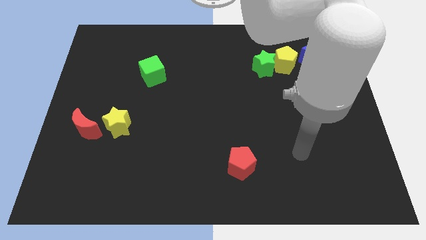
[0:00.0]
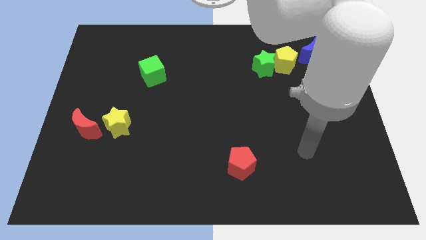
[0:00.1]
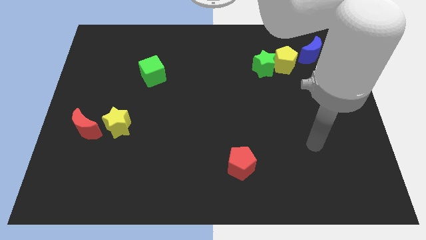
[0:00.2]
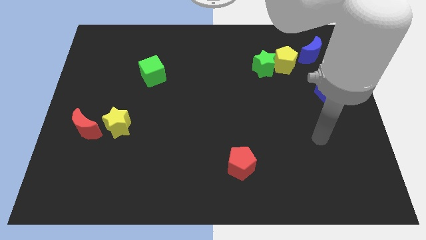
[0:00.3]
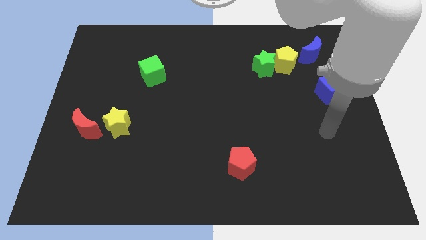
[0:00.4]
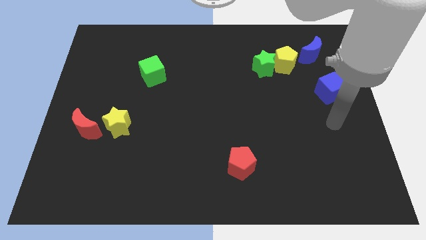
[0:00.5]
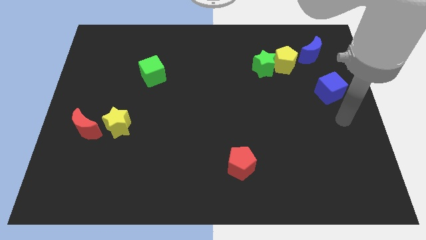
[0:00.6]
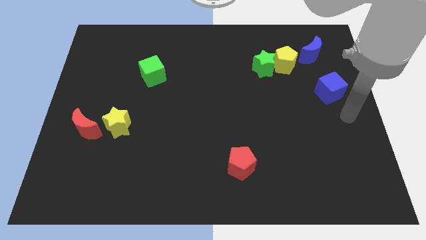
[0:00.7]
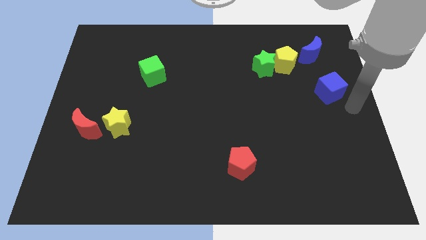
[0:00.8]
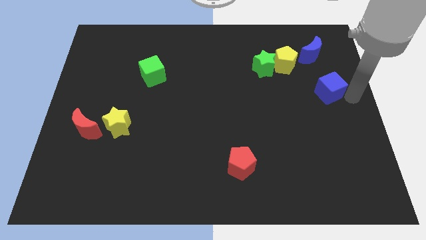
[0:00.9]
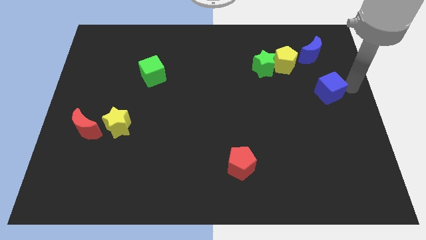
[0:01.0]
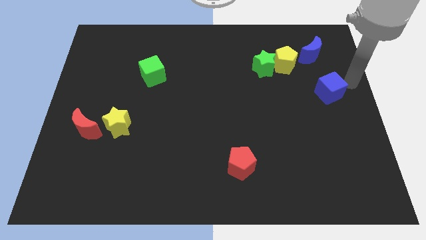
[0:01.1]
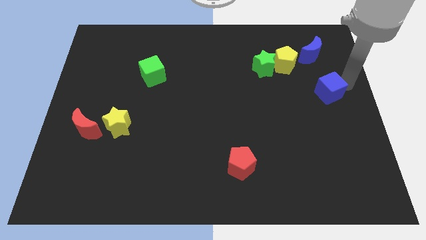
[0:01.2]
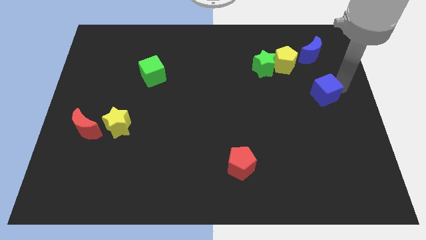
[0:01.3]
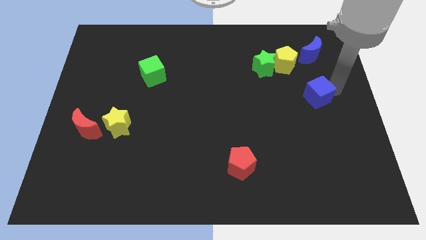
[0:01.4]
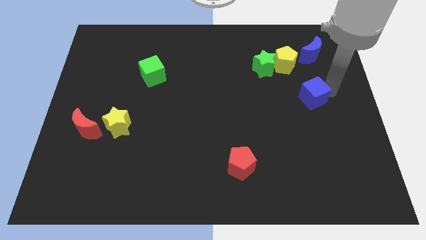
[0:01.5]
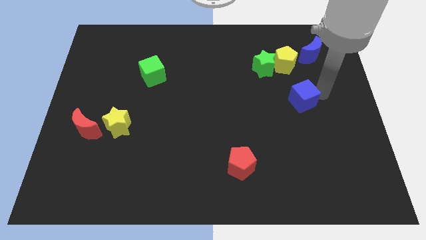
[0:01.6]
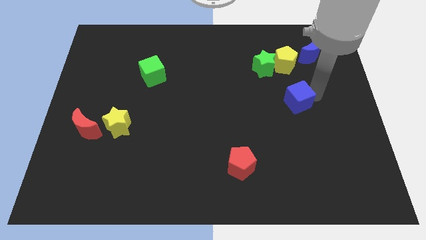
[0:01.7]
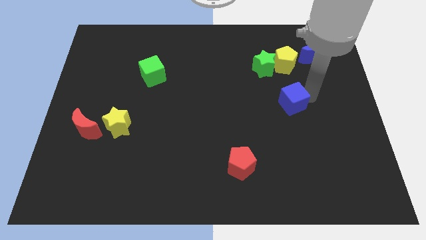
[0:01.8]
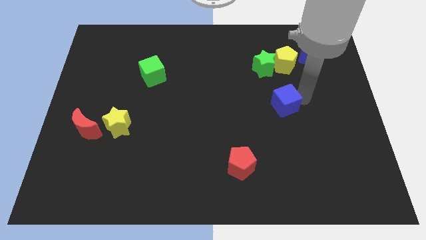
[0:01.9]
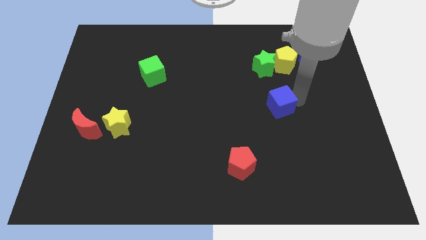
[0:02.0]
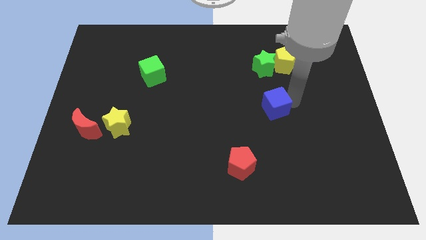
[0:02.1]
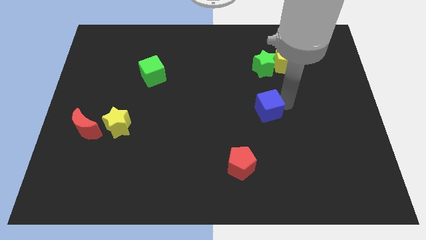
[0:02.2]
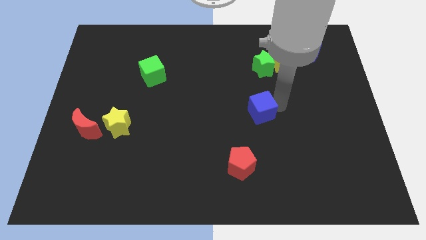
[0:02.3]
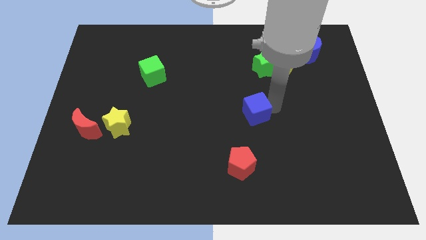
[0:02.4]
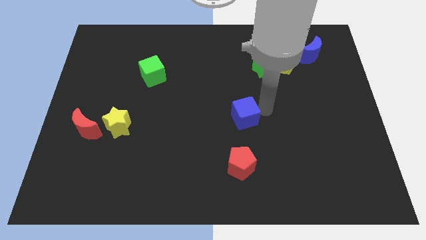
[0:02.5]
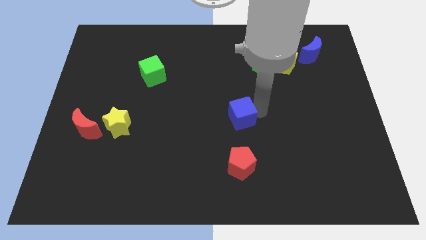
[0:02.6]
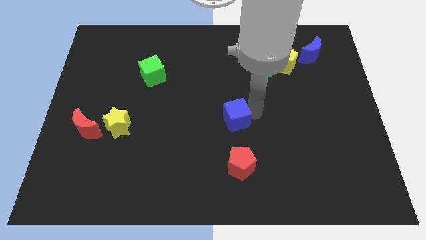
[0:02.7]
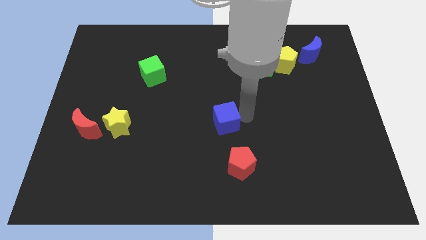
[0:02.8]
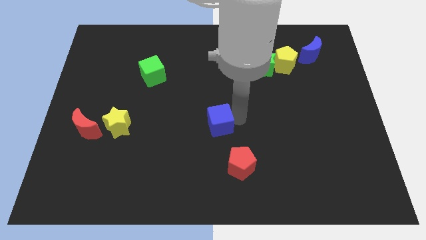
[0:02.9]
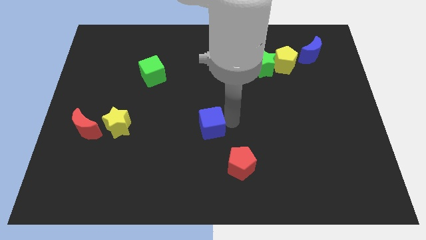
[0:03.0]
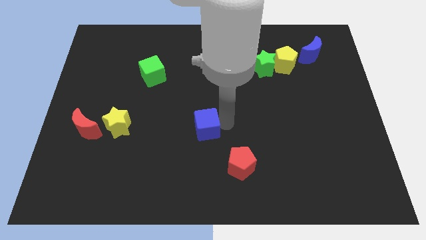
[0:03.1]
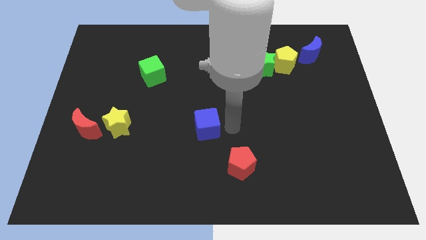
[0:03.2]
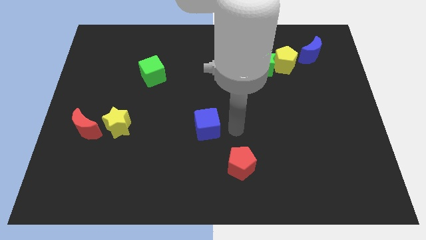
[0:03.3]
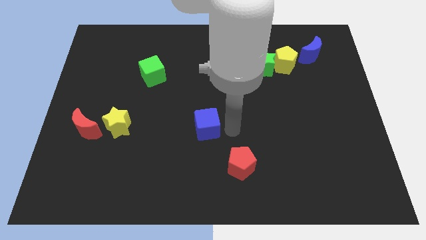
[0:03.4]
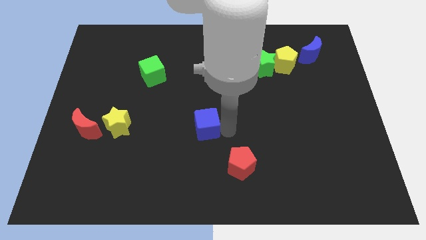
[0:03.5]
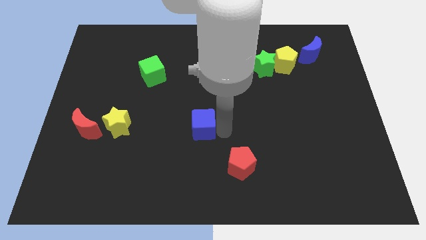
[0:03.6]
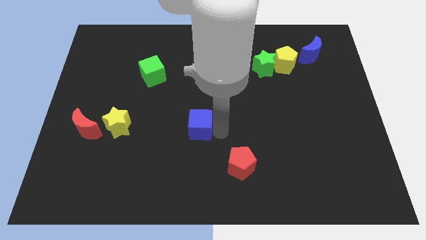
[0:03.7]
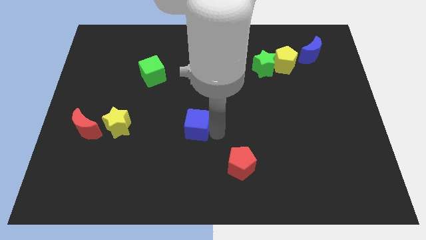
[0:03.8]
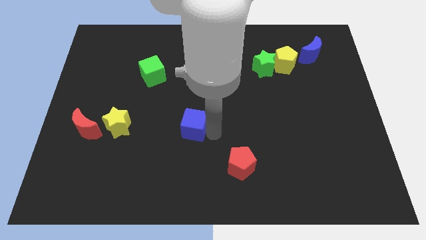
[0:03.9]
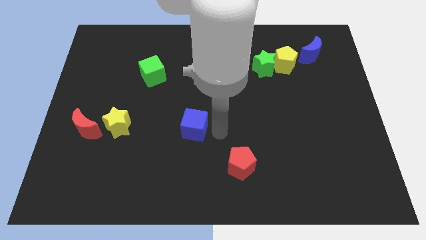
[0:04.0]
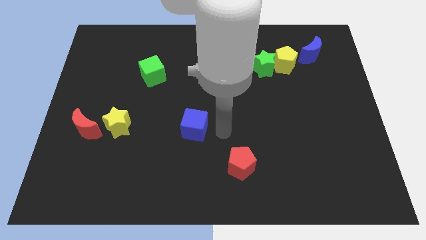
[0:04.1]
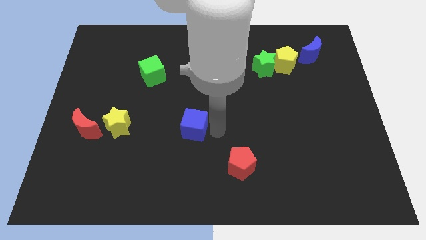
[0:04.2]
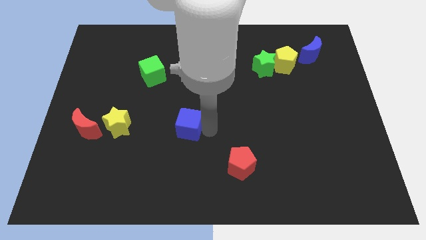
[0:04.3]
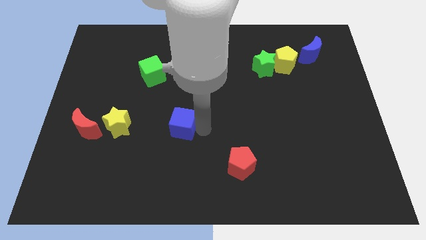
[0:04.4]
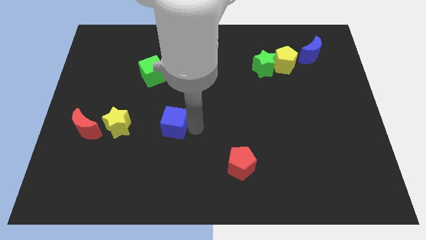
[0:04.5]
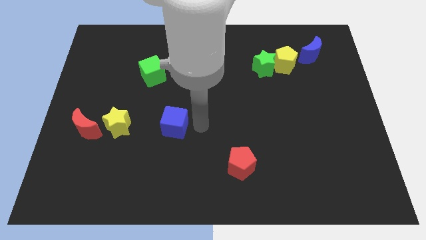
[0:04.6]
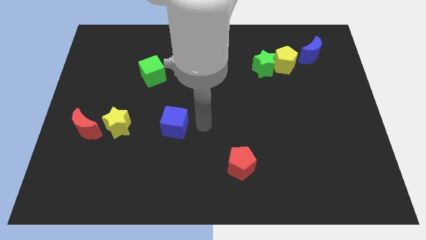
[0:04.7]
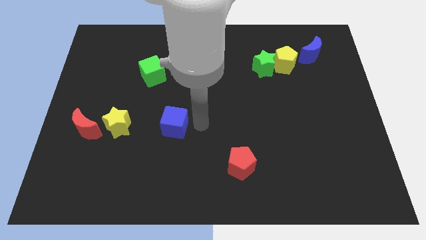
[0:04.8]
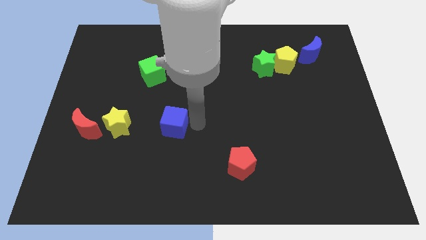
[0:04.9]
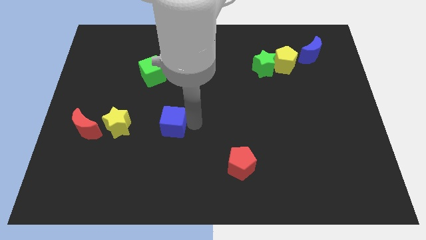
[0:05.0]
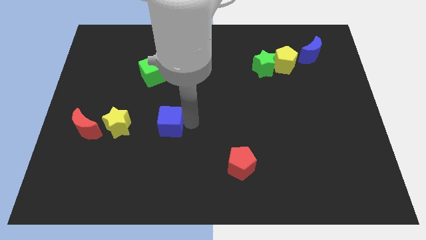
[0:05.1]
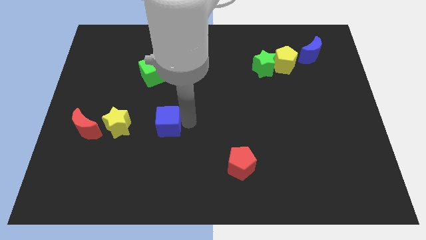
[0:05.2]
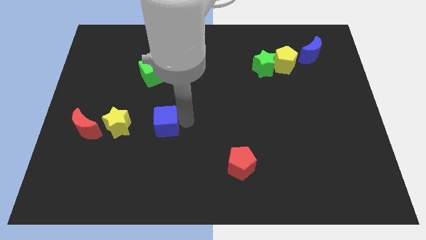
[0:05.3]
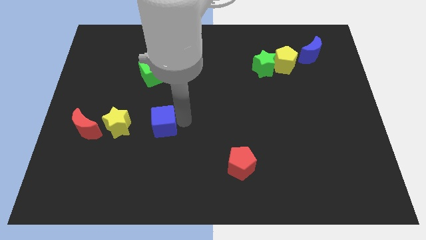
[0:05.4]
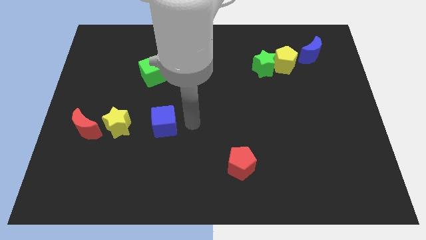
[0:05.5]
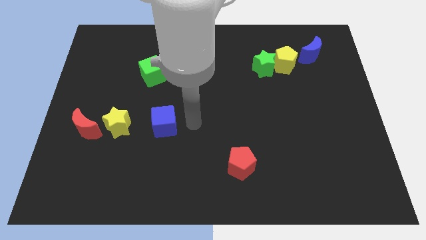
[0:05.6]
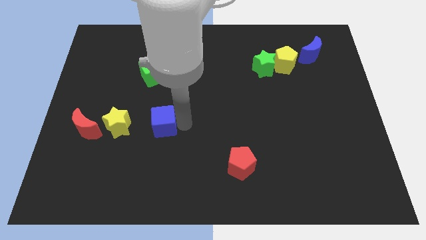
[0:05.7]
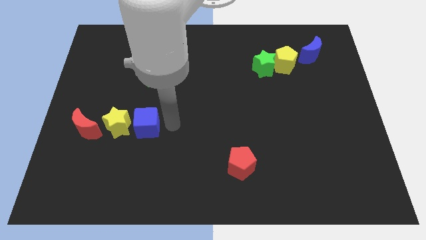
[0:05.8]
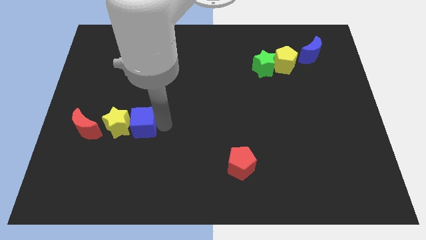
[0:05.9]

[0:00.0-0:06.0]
slide the blue cube next to the yellow star
